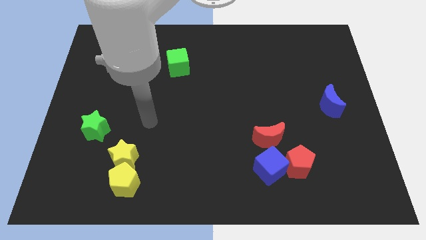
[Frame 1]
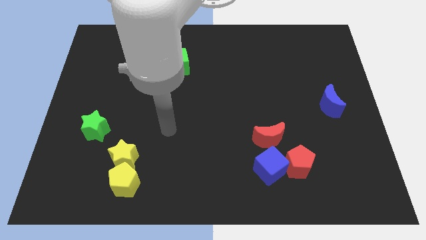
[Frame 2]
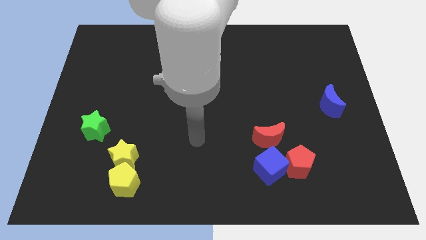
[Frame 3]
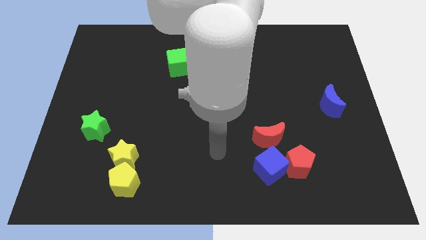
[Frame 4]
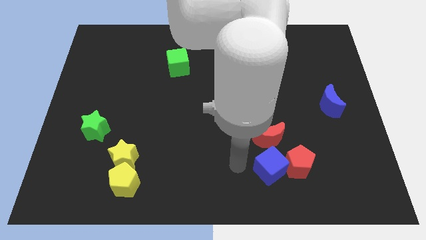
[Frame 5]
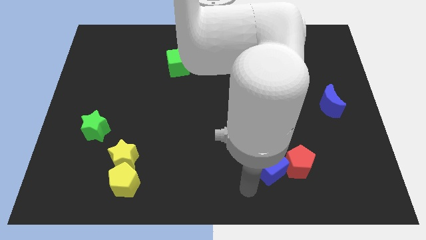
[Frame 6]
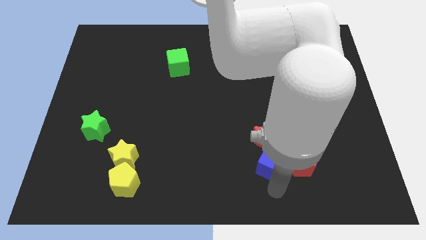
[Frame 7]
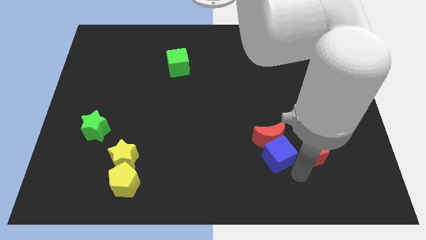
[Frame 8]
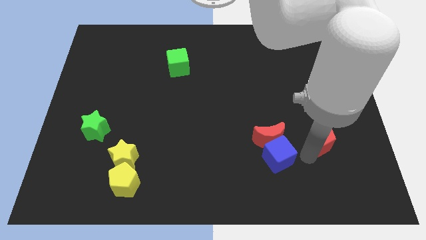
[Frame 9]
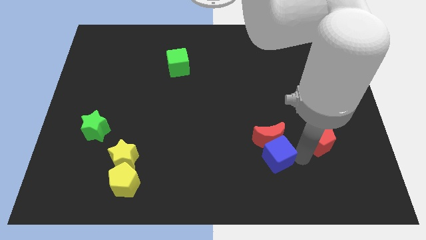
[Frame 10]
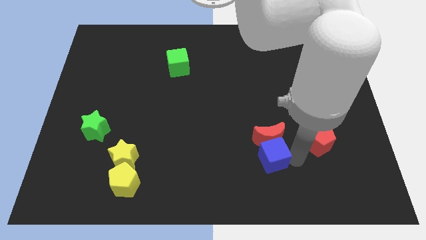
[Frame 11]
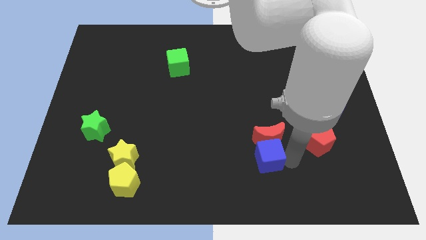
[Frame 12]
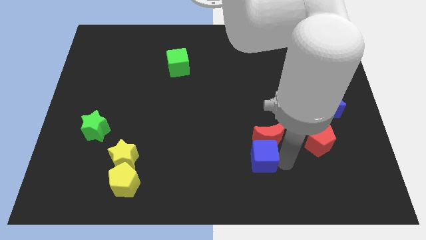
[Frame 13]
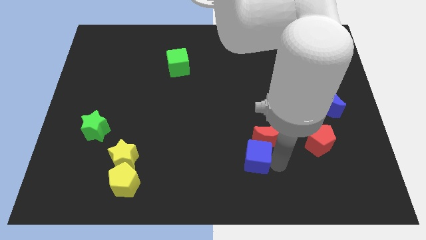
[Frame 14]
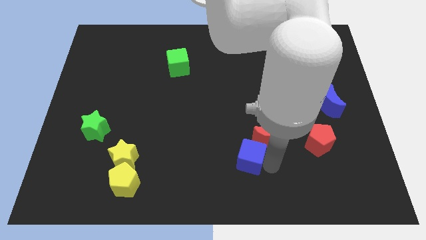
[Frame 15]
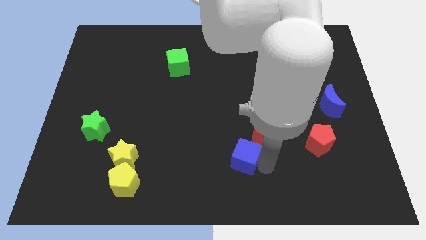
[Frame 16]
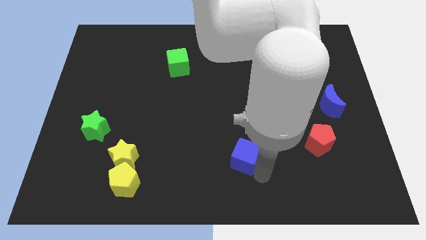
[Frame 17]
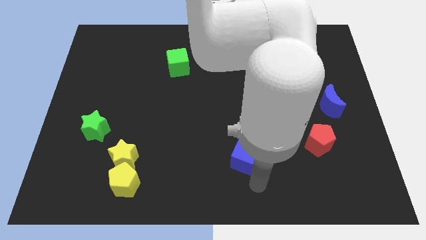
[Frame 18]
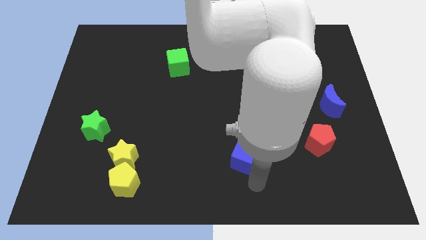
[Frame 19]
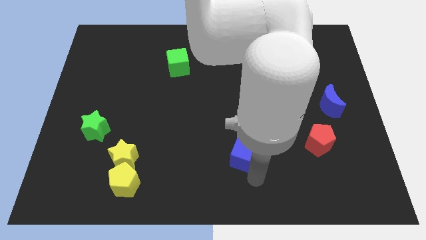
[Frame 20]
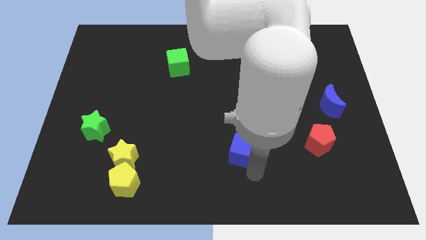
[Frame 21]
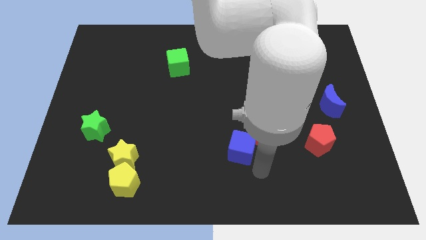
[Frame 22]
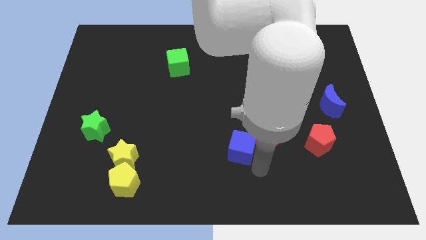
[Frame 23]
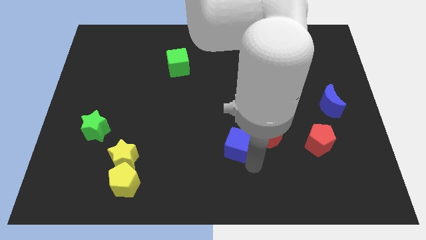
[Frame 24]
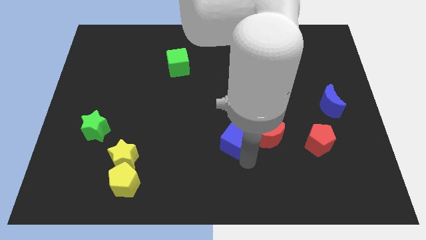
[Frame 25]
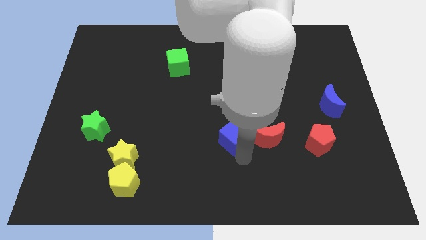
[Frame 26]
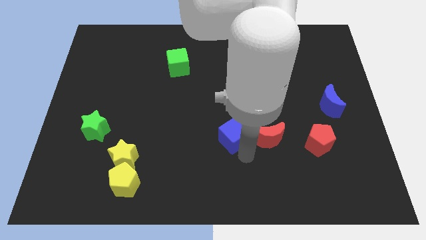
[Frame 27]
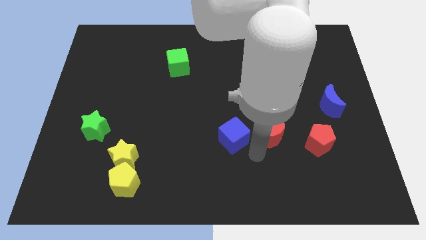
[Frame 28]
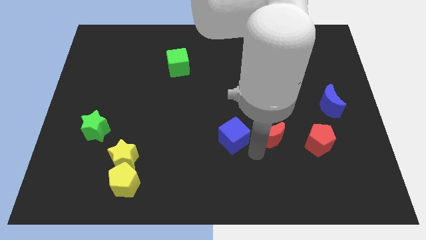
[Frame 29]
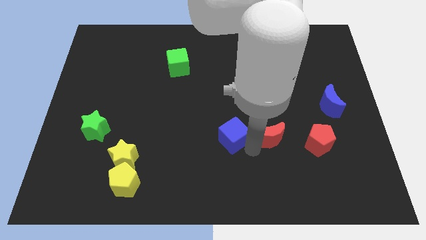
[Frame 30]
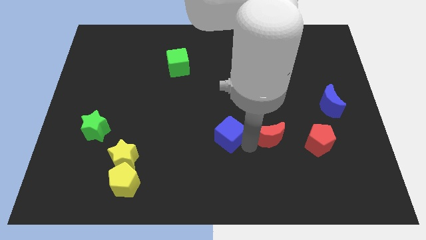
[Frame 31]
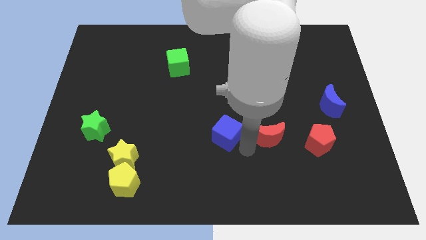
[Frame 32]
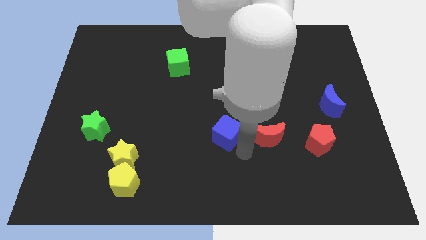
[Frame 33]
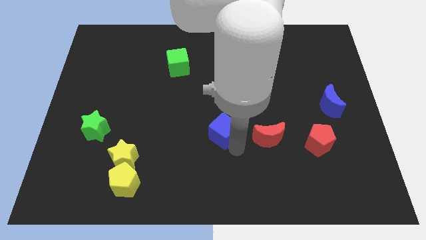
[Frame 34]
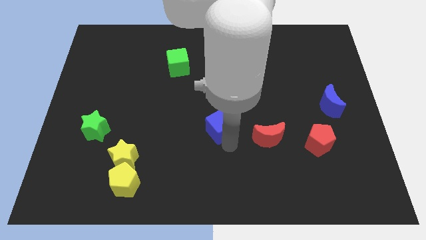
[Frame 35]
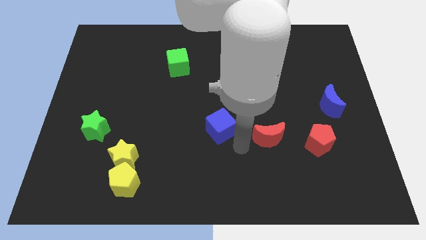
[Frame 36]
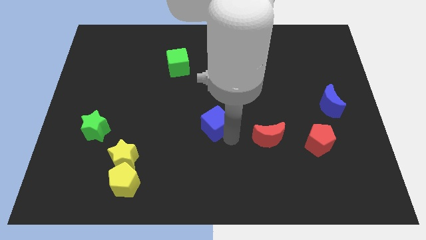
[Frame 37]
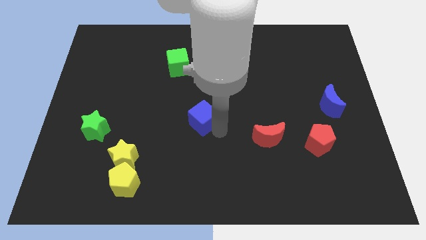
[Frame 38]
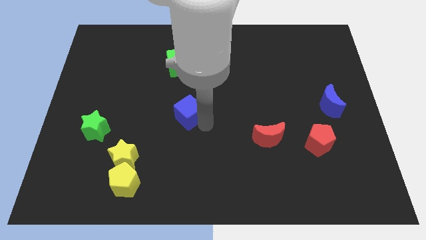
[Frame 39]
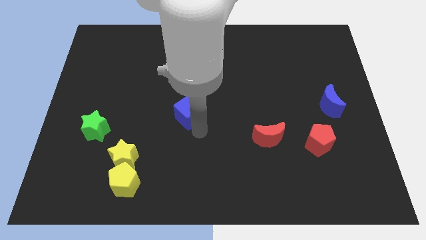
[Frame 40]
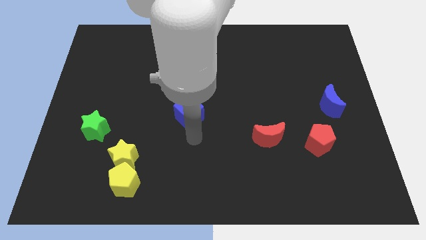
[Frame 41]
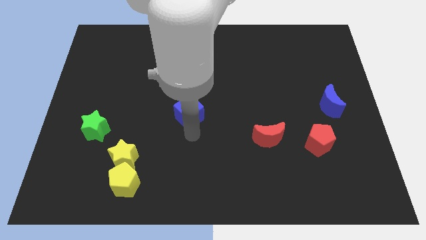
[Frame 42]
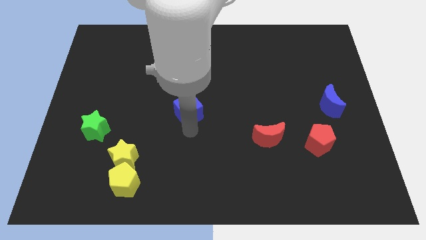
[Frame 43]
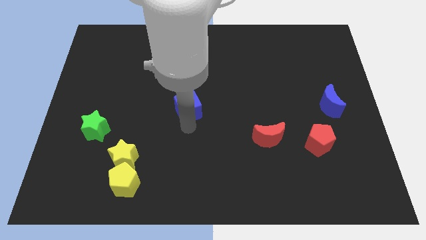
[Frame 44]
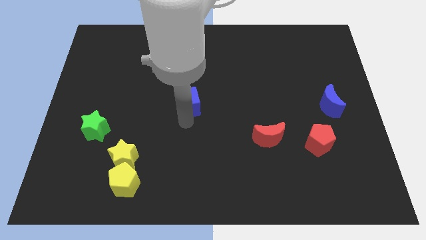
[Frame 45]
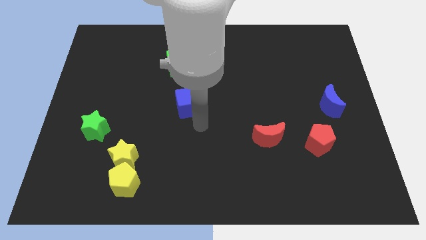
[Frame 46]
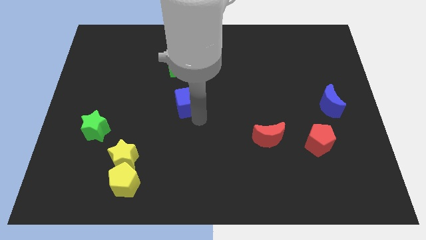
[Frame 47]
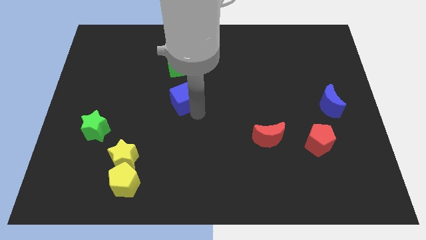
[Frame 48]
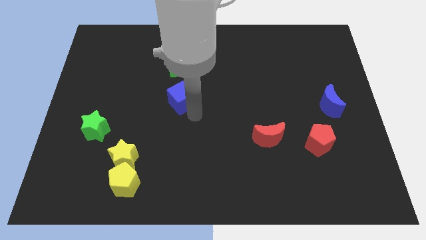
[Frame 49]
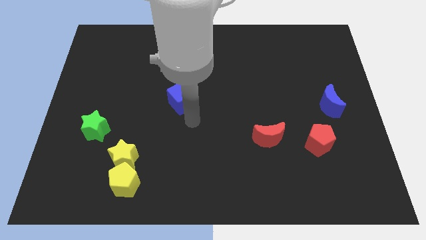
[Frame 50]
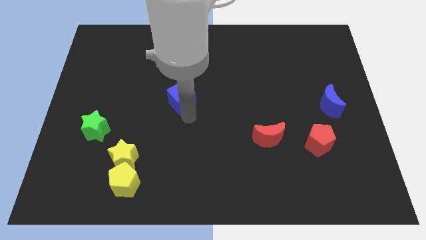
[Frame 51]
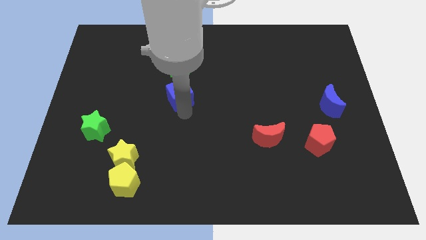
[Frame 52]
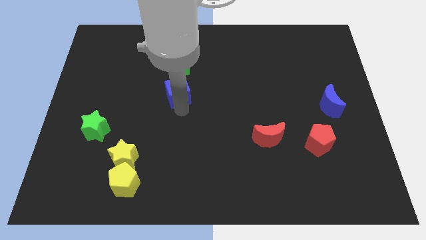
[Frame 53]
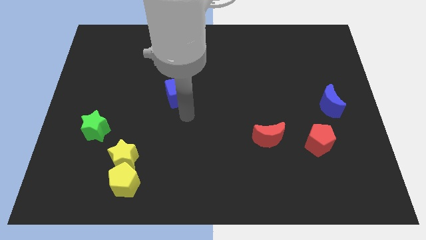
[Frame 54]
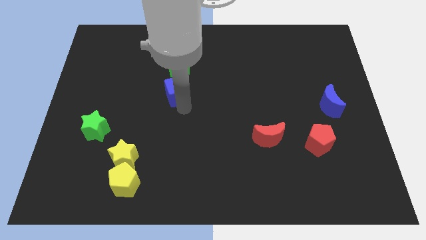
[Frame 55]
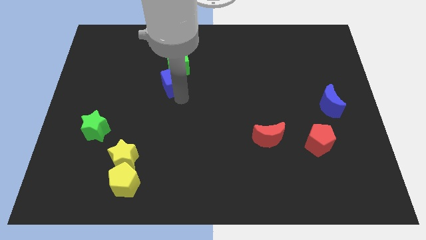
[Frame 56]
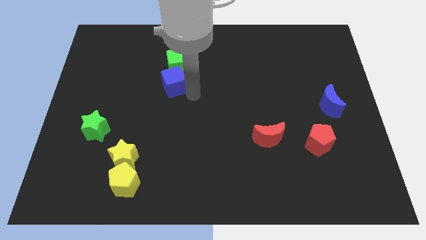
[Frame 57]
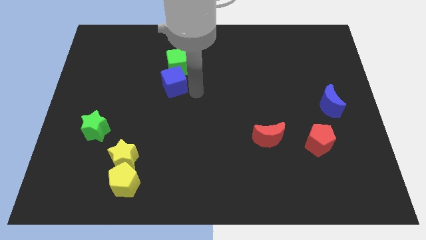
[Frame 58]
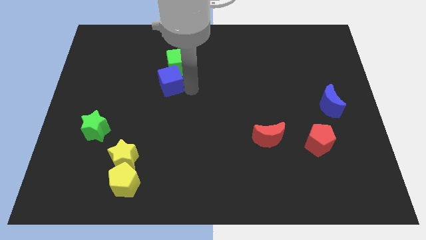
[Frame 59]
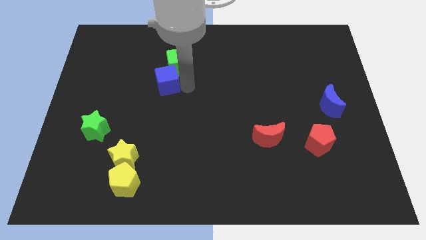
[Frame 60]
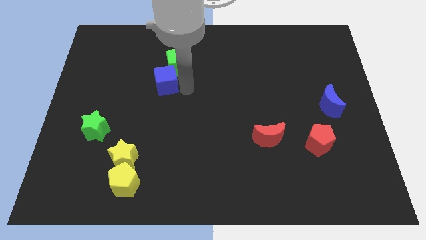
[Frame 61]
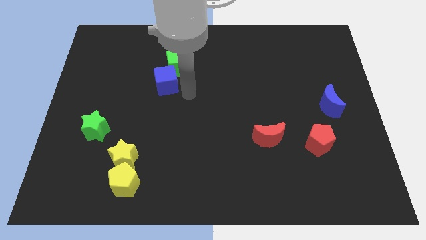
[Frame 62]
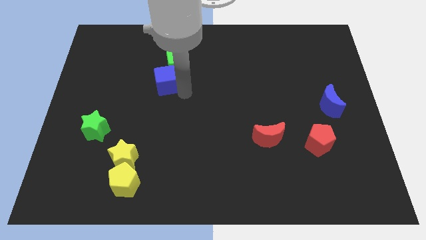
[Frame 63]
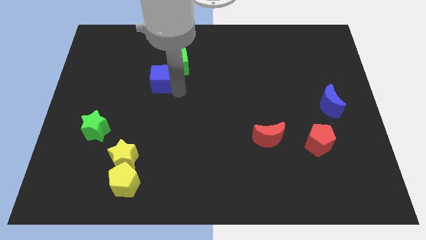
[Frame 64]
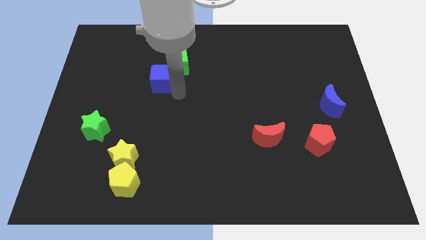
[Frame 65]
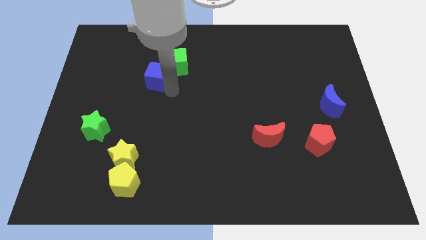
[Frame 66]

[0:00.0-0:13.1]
move the blue cube just left of the green cube
